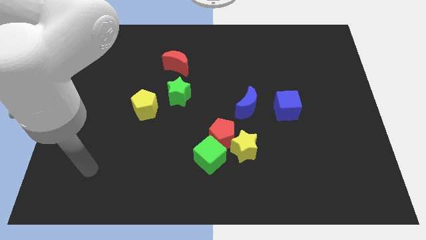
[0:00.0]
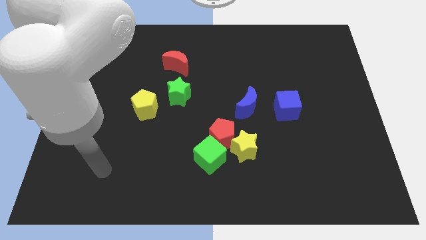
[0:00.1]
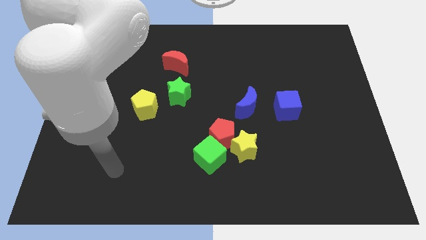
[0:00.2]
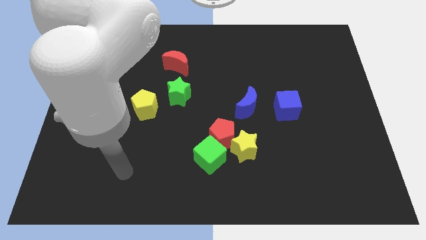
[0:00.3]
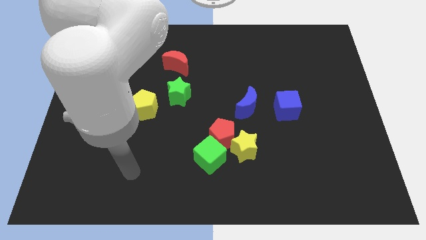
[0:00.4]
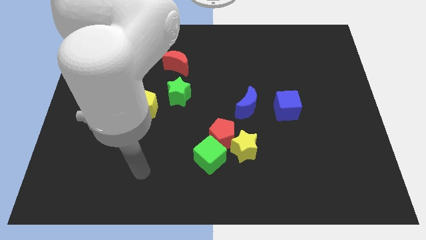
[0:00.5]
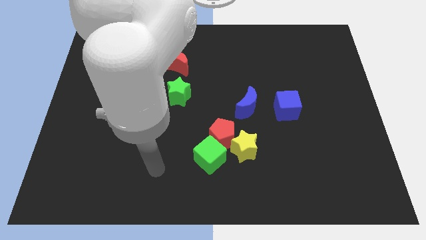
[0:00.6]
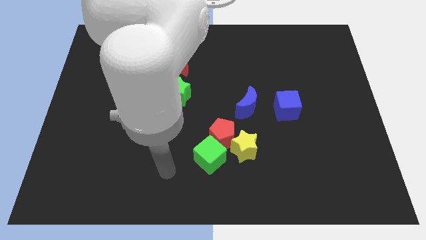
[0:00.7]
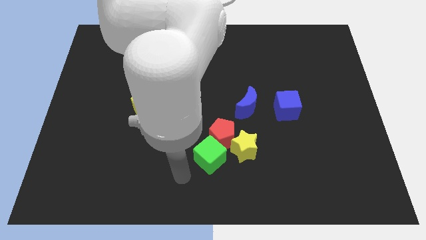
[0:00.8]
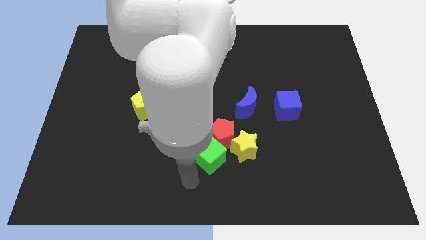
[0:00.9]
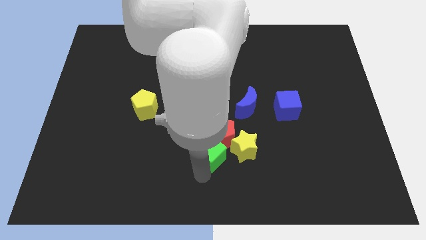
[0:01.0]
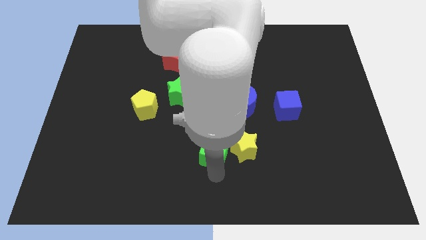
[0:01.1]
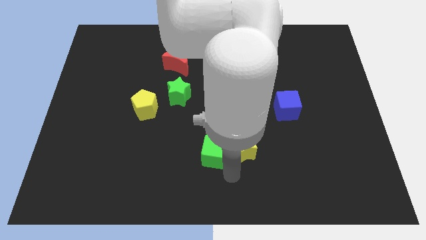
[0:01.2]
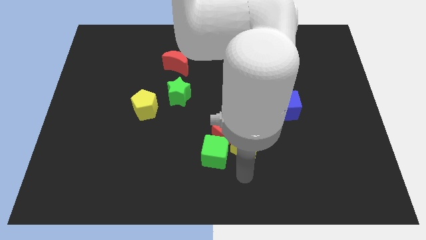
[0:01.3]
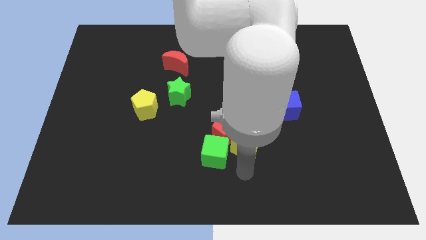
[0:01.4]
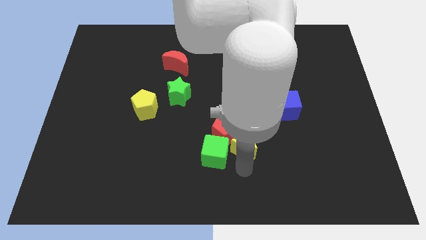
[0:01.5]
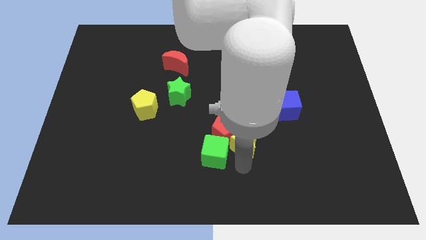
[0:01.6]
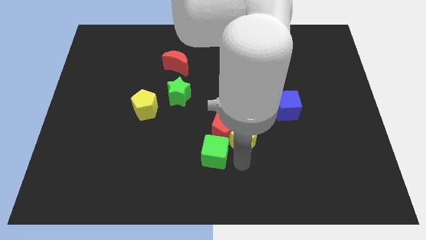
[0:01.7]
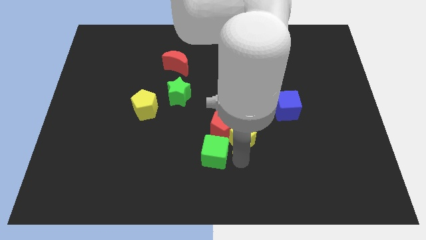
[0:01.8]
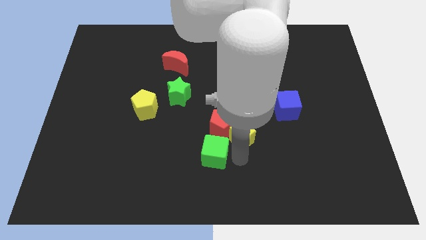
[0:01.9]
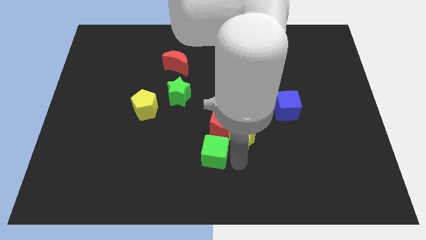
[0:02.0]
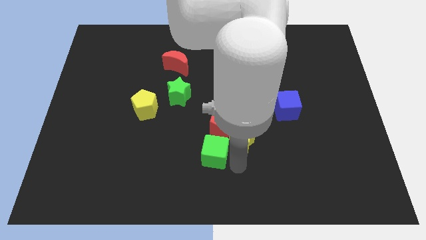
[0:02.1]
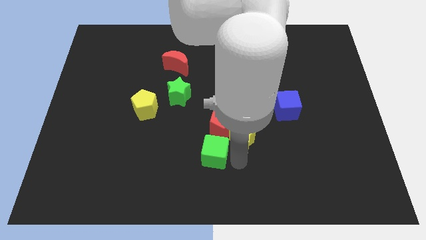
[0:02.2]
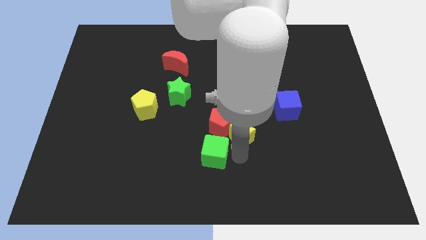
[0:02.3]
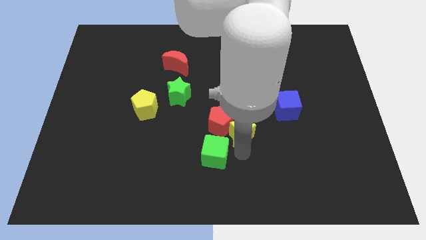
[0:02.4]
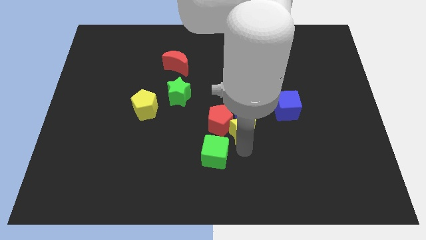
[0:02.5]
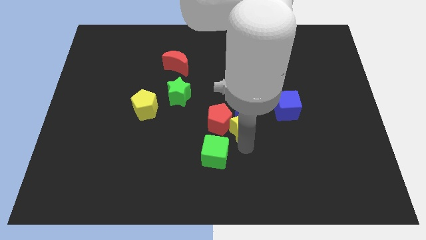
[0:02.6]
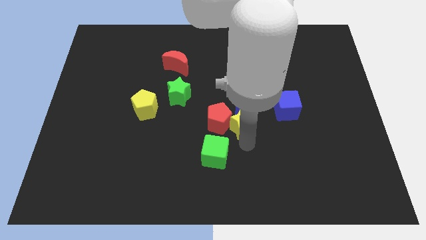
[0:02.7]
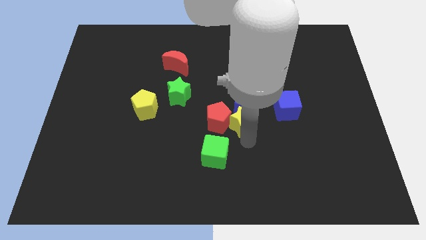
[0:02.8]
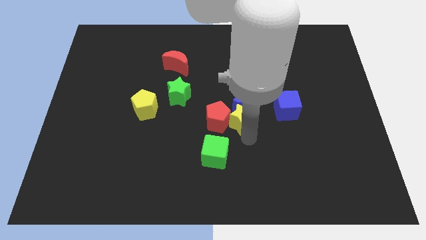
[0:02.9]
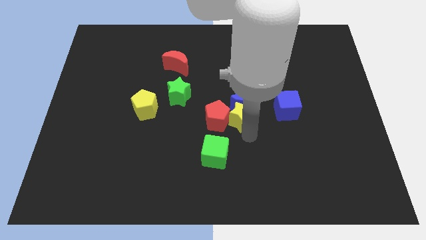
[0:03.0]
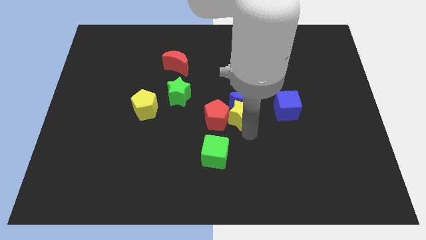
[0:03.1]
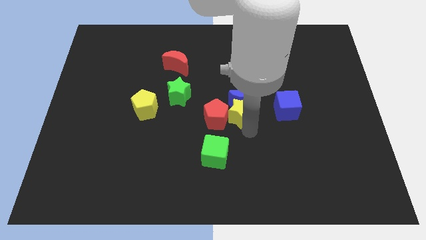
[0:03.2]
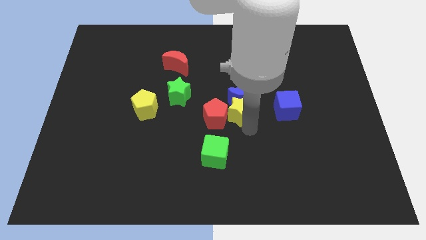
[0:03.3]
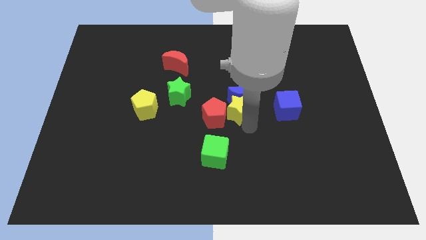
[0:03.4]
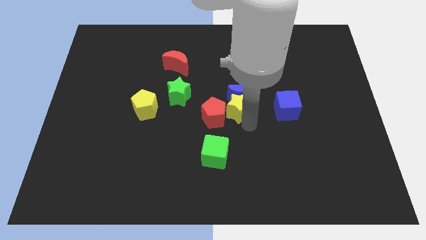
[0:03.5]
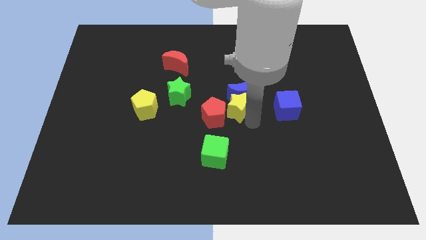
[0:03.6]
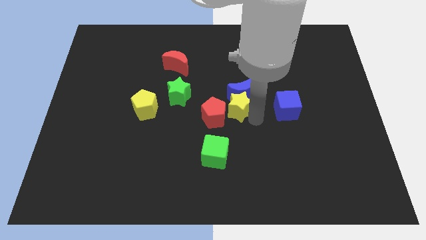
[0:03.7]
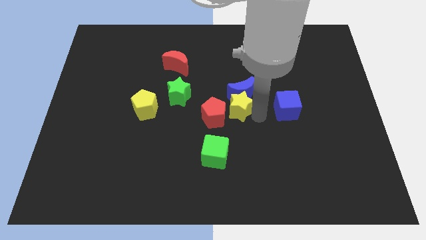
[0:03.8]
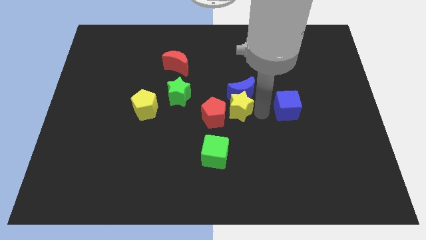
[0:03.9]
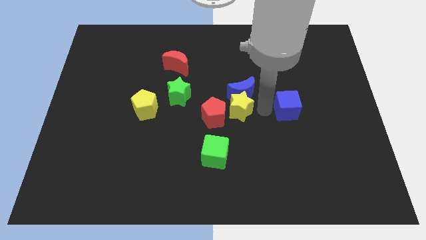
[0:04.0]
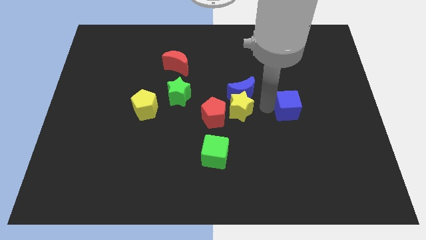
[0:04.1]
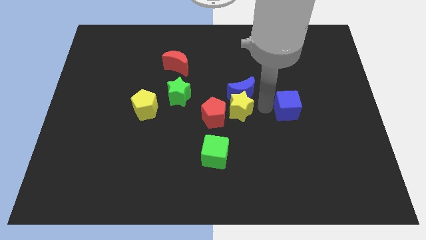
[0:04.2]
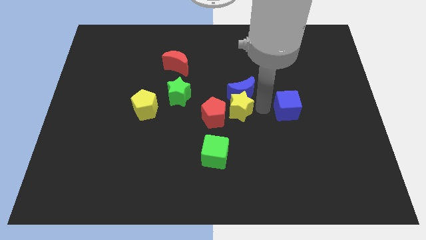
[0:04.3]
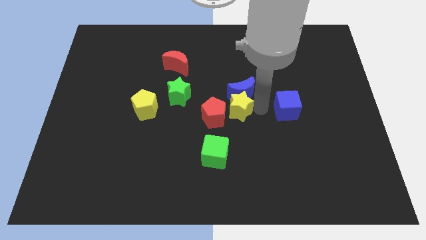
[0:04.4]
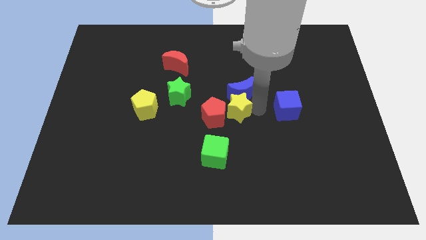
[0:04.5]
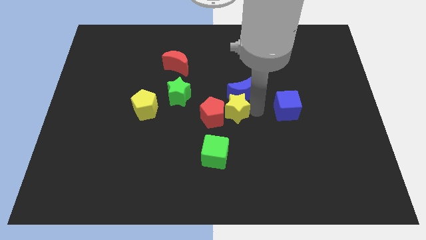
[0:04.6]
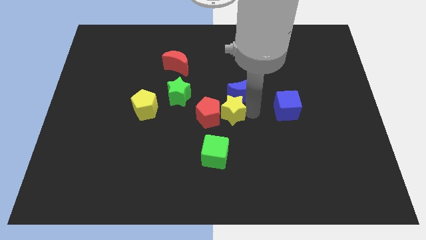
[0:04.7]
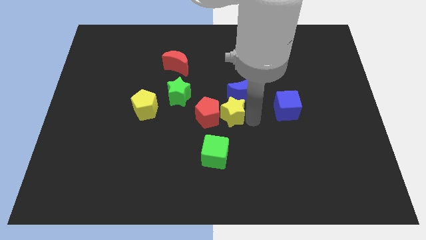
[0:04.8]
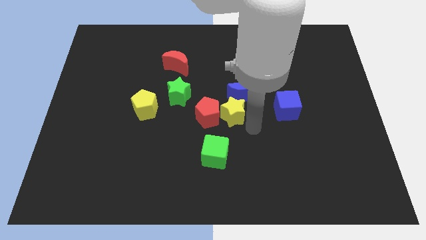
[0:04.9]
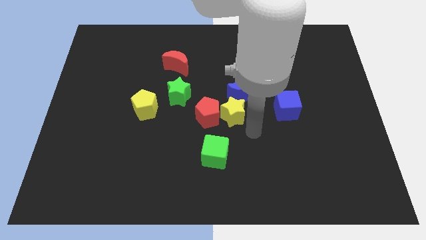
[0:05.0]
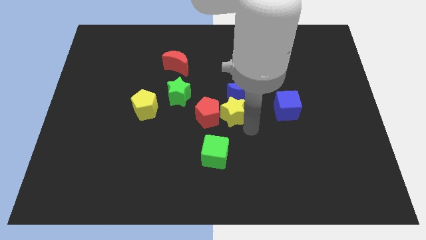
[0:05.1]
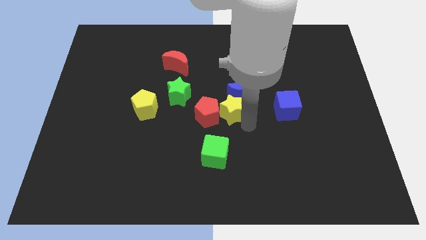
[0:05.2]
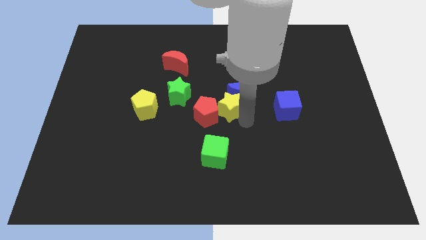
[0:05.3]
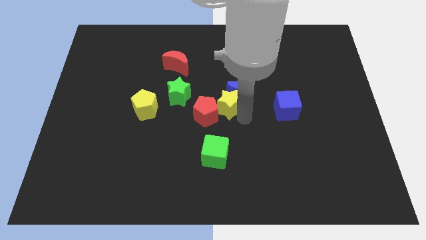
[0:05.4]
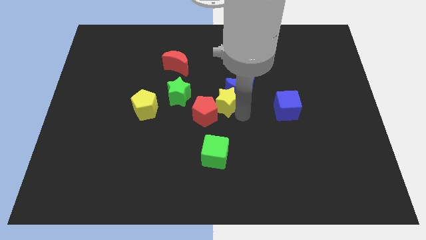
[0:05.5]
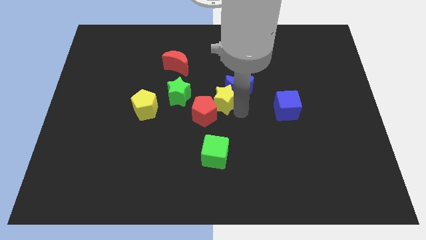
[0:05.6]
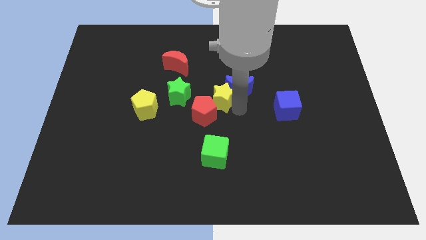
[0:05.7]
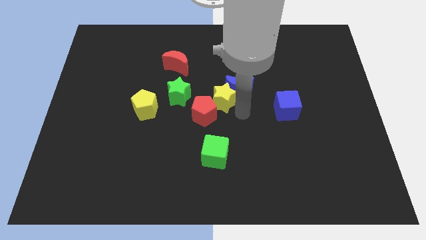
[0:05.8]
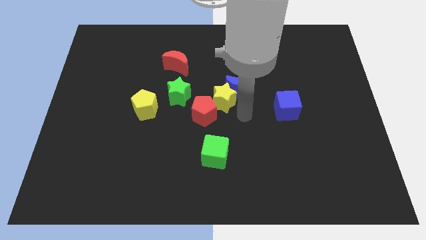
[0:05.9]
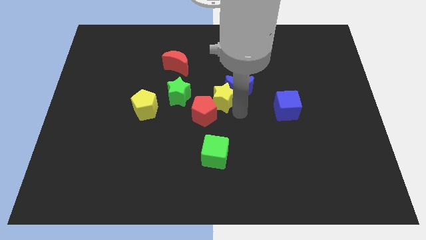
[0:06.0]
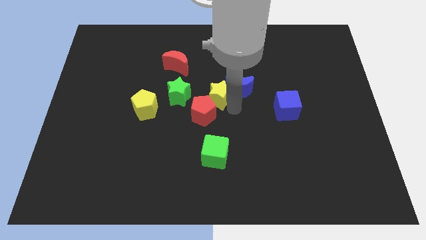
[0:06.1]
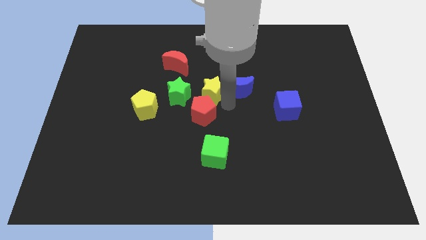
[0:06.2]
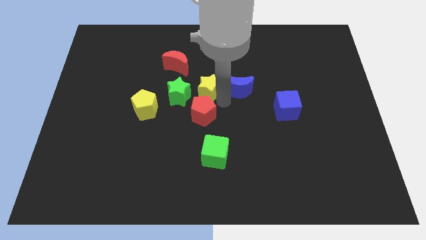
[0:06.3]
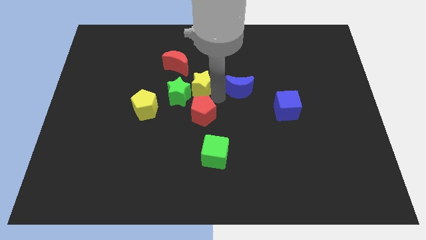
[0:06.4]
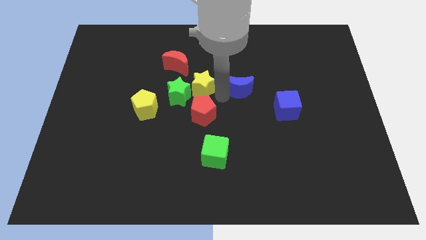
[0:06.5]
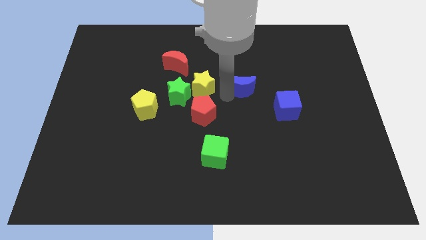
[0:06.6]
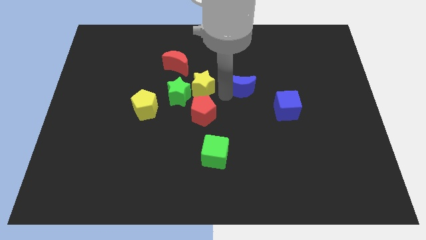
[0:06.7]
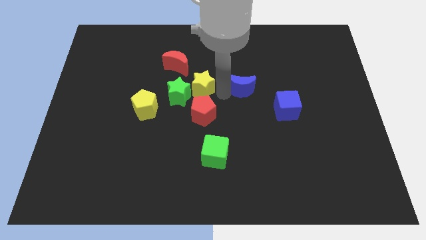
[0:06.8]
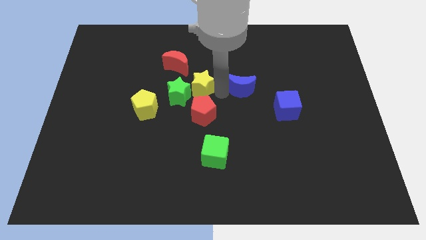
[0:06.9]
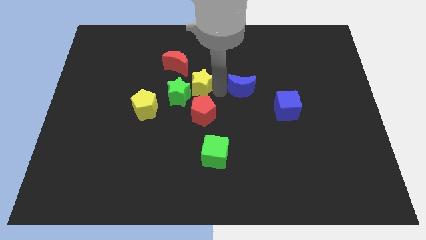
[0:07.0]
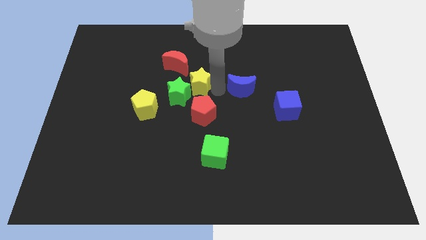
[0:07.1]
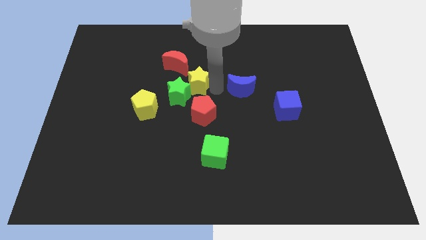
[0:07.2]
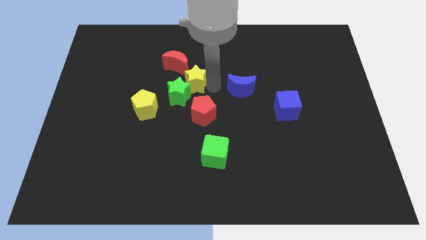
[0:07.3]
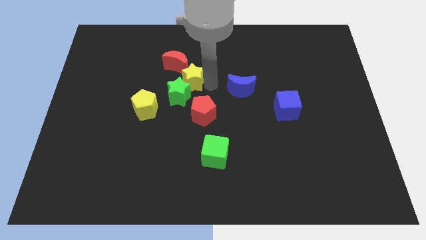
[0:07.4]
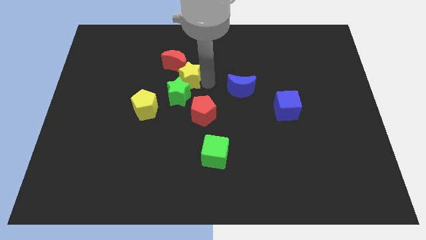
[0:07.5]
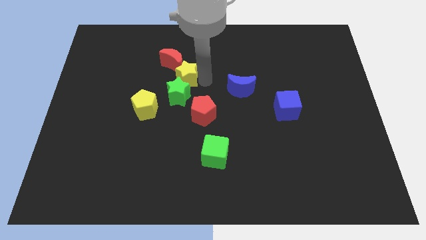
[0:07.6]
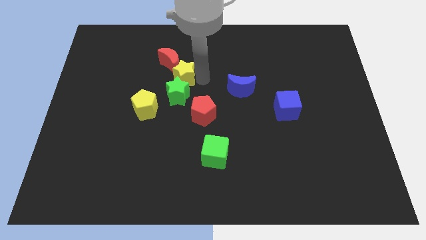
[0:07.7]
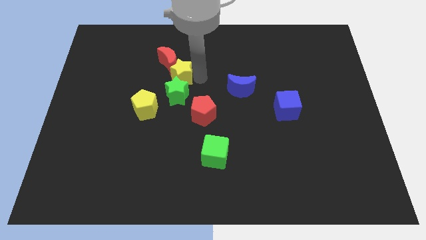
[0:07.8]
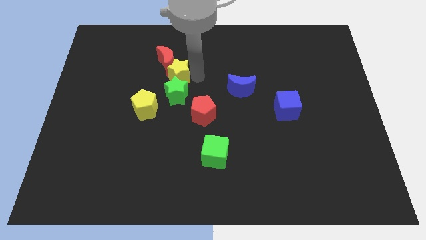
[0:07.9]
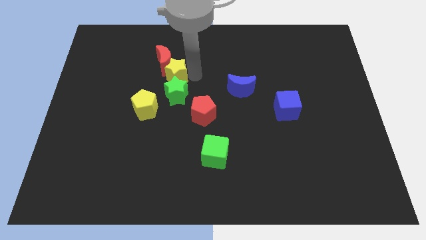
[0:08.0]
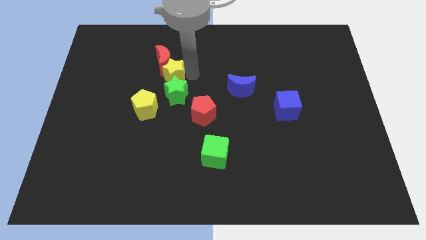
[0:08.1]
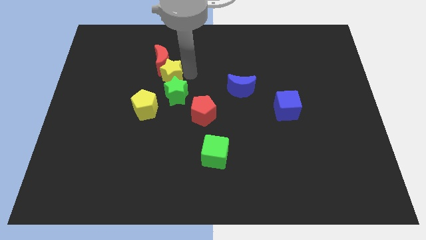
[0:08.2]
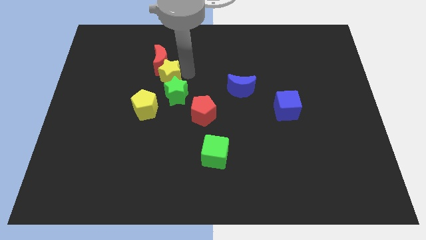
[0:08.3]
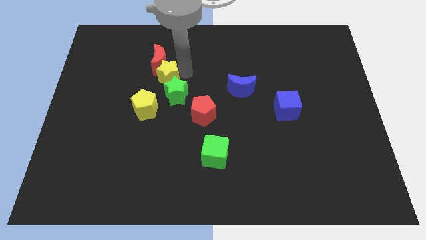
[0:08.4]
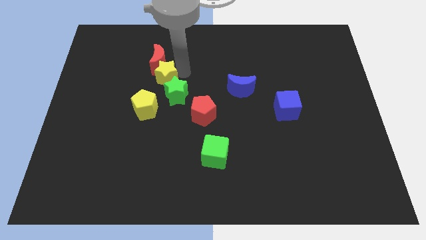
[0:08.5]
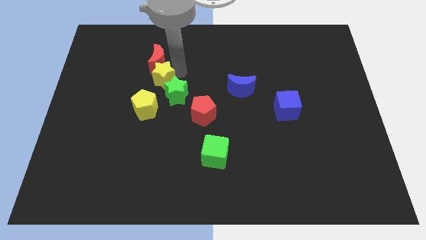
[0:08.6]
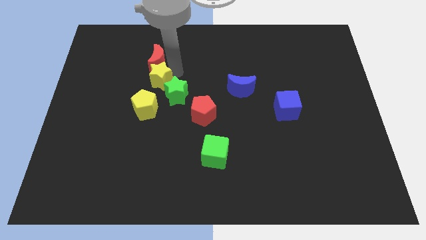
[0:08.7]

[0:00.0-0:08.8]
move the yellow star to the left of the green star
